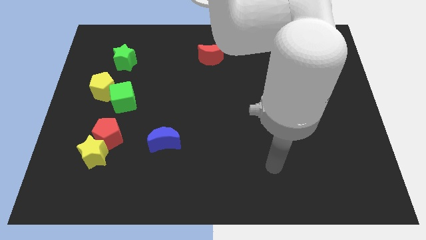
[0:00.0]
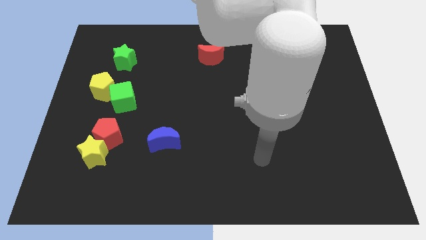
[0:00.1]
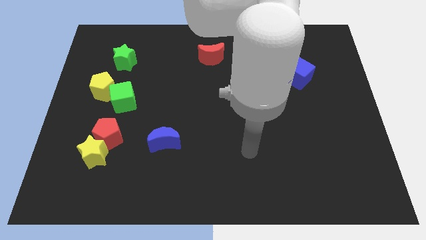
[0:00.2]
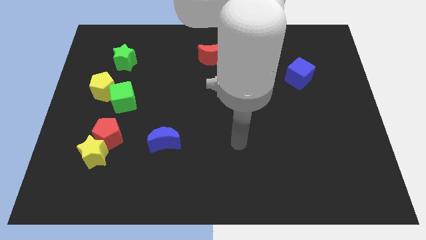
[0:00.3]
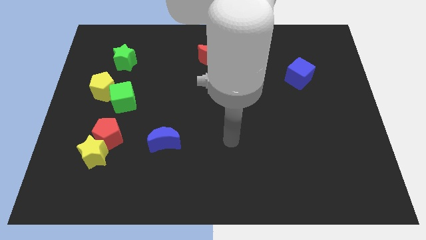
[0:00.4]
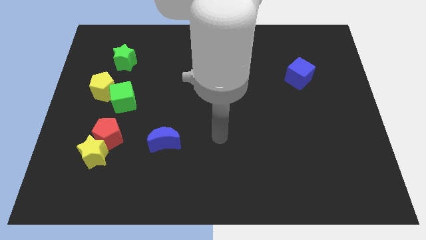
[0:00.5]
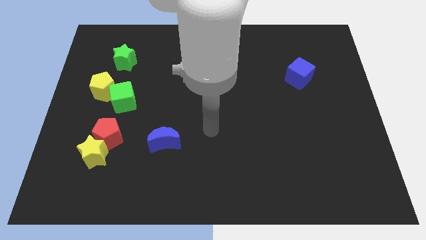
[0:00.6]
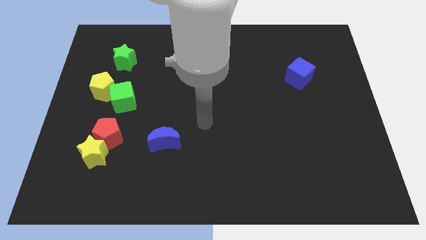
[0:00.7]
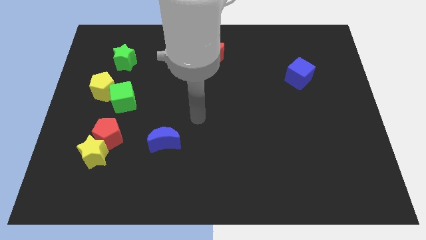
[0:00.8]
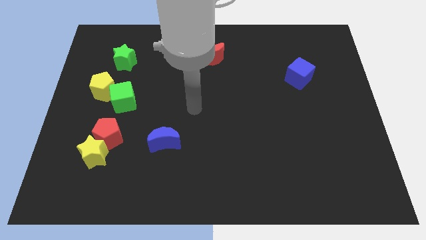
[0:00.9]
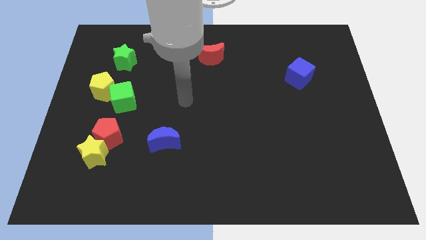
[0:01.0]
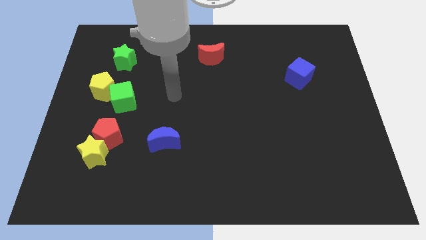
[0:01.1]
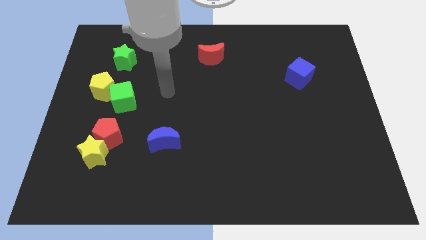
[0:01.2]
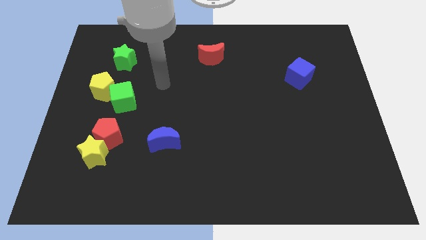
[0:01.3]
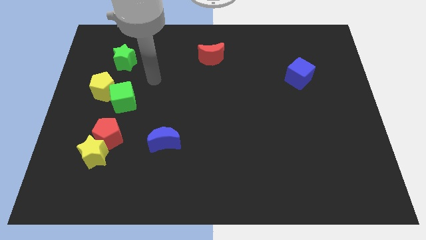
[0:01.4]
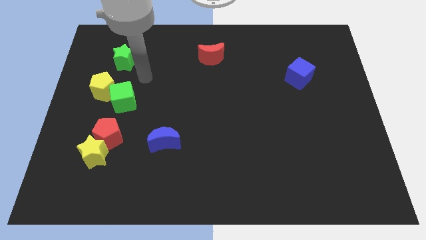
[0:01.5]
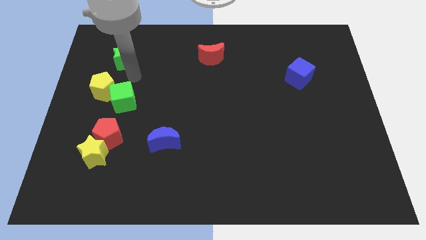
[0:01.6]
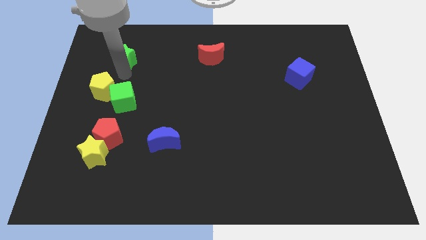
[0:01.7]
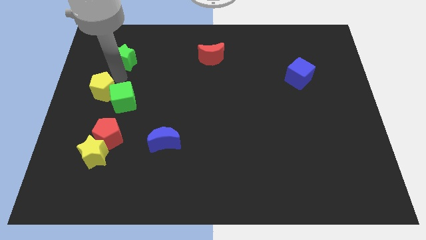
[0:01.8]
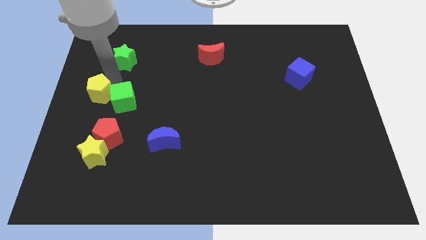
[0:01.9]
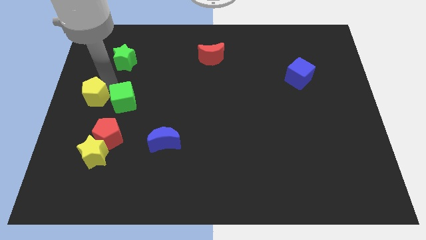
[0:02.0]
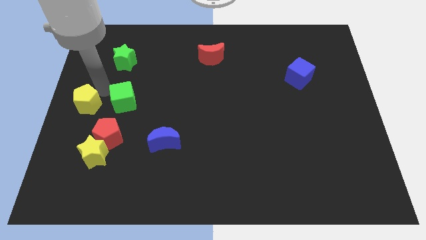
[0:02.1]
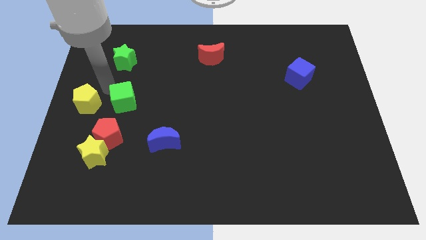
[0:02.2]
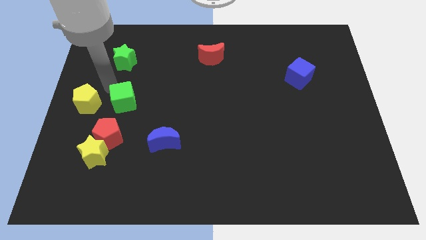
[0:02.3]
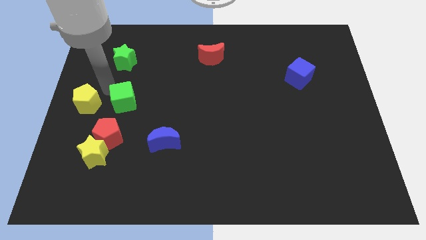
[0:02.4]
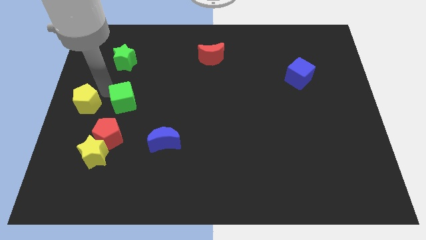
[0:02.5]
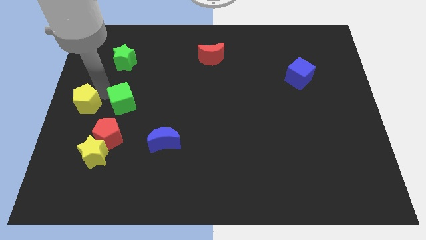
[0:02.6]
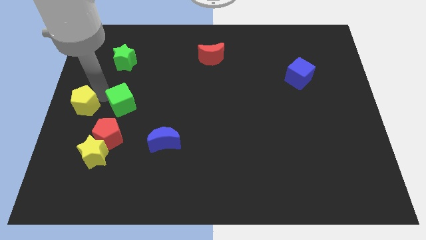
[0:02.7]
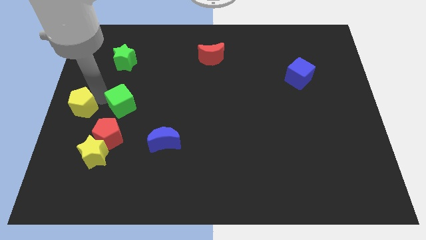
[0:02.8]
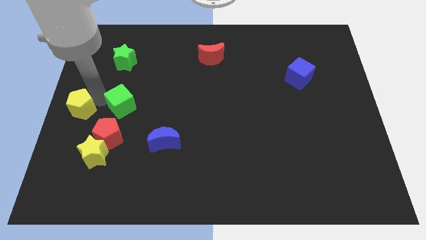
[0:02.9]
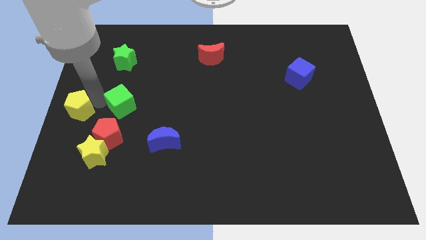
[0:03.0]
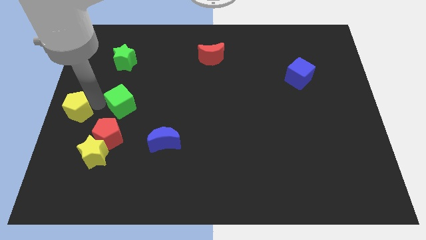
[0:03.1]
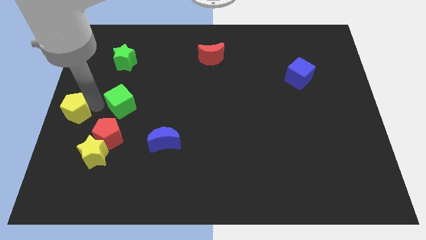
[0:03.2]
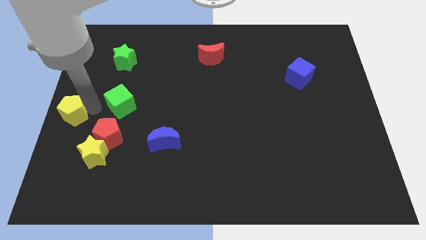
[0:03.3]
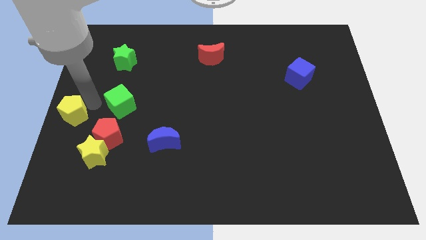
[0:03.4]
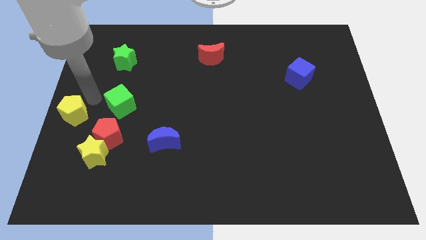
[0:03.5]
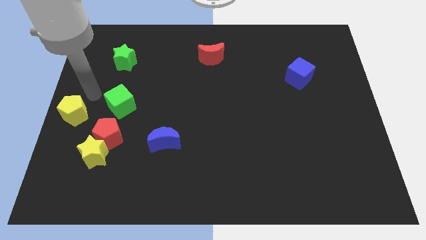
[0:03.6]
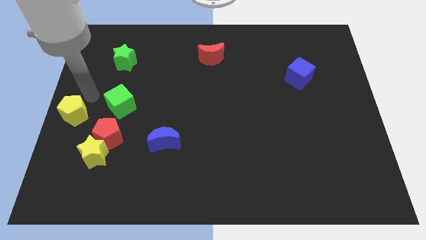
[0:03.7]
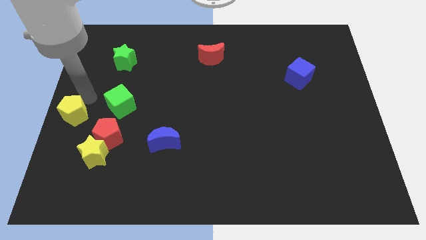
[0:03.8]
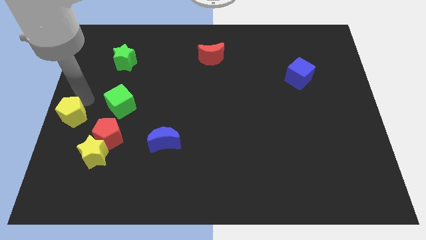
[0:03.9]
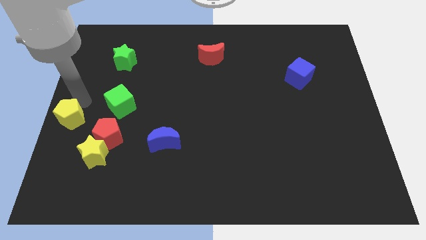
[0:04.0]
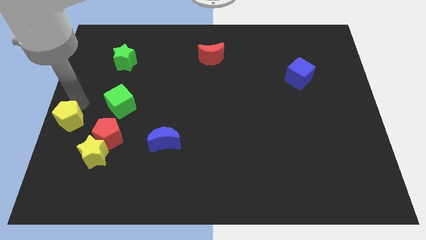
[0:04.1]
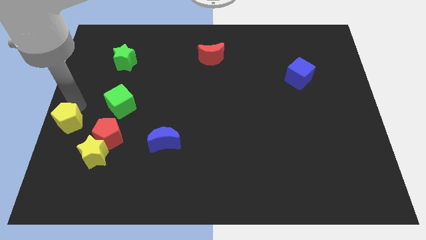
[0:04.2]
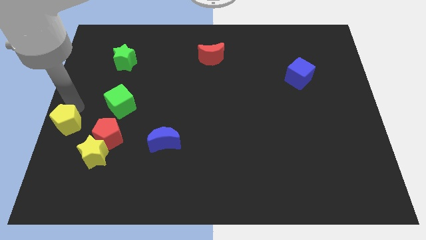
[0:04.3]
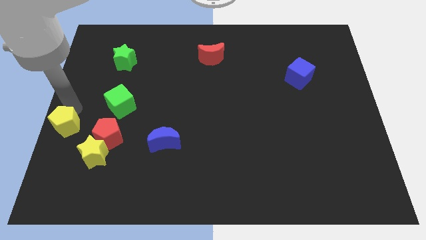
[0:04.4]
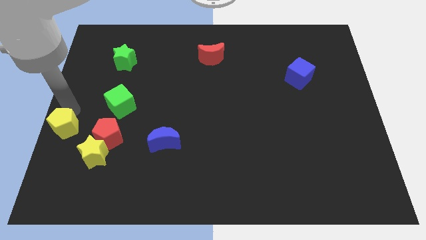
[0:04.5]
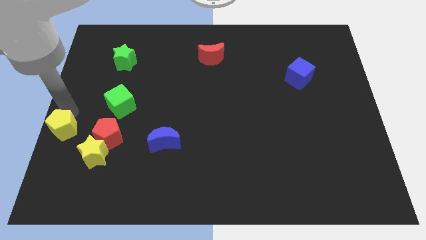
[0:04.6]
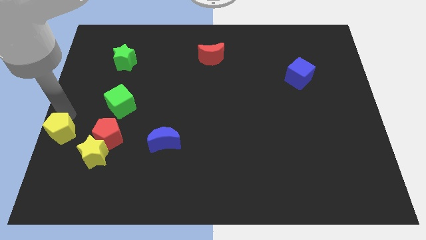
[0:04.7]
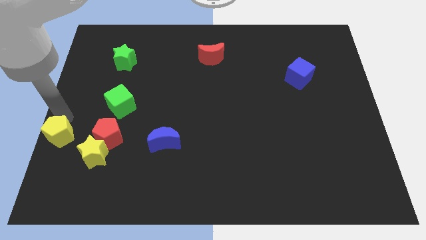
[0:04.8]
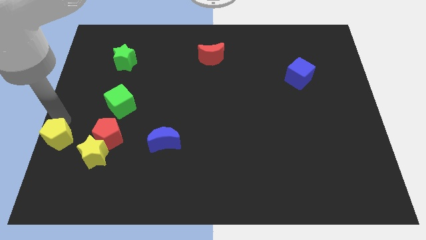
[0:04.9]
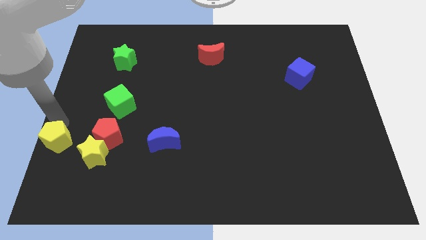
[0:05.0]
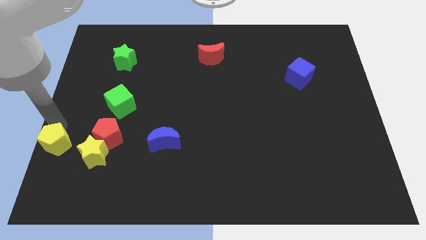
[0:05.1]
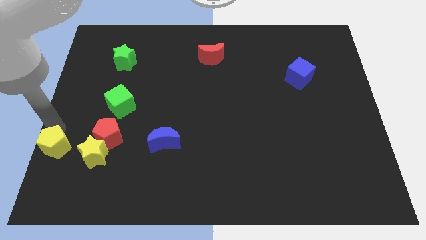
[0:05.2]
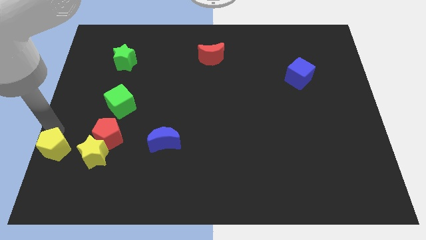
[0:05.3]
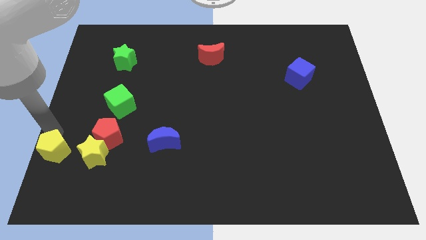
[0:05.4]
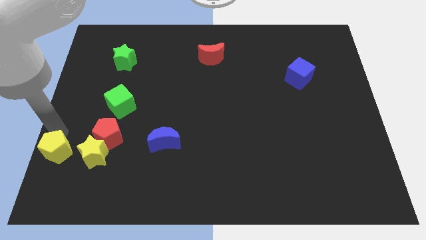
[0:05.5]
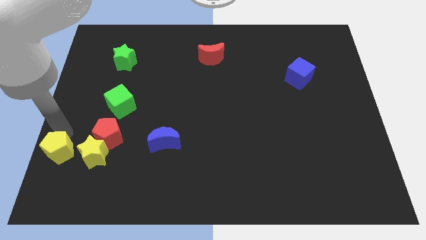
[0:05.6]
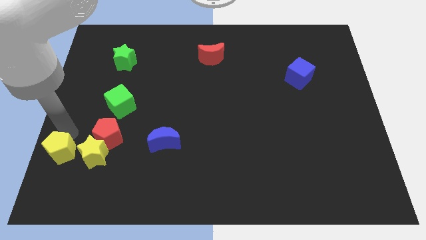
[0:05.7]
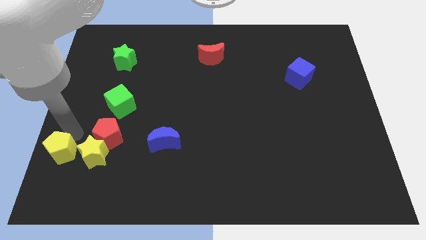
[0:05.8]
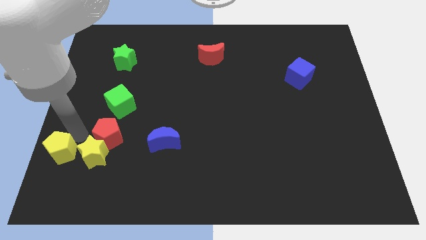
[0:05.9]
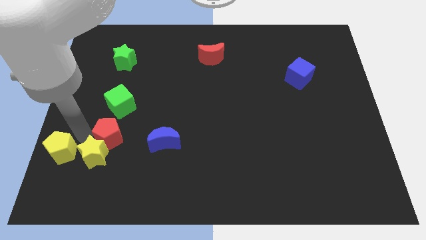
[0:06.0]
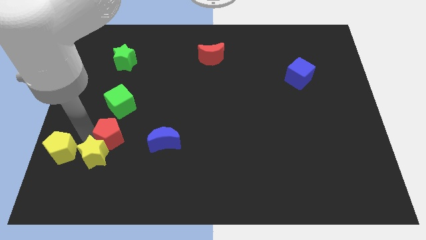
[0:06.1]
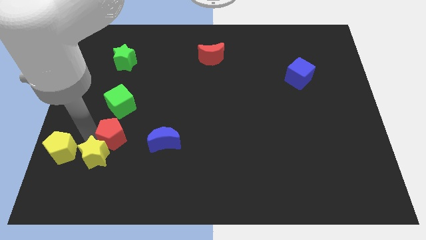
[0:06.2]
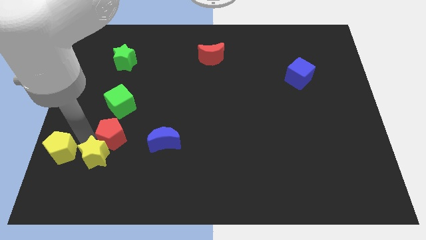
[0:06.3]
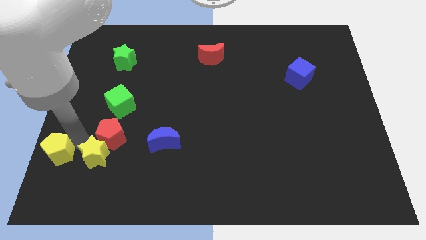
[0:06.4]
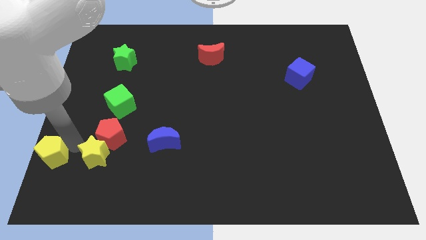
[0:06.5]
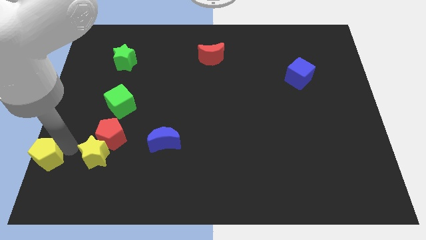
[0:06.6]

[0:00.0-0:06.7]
move the yellow pentagon to the bottom left
